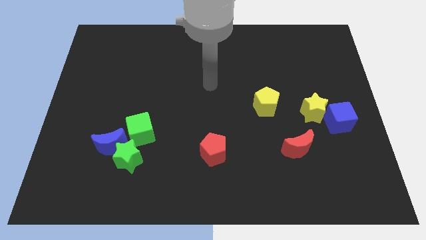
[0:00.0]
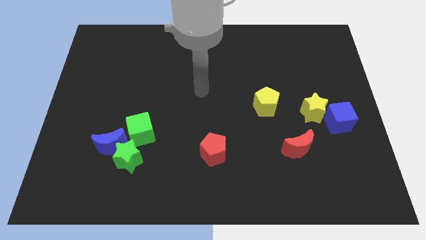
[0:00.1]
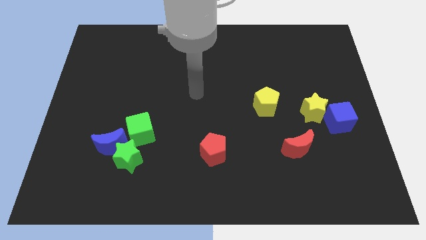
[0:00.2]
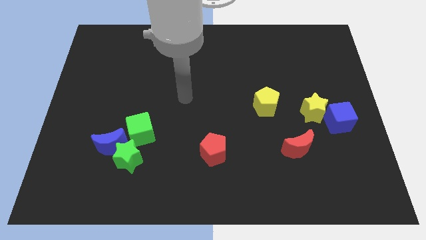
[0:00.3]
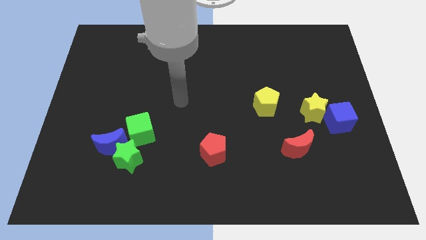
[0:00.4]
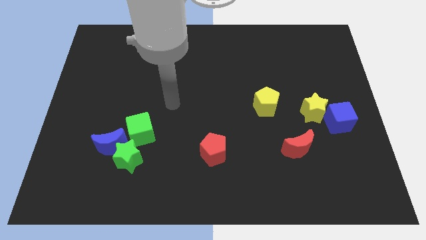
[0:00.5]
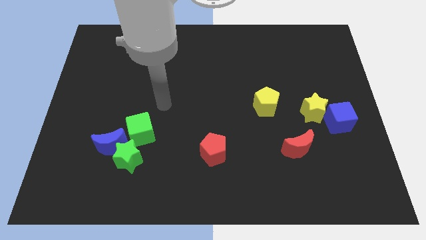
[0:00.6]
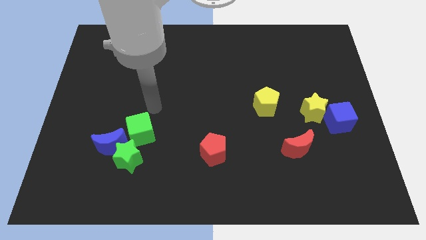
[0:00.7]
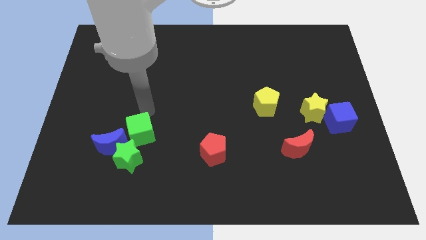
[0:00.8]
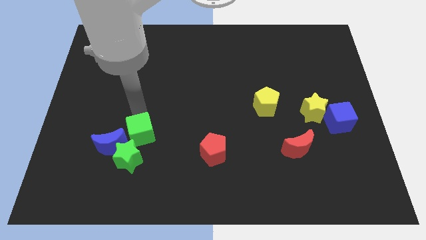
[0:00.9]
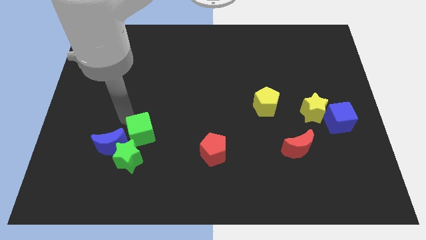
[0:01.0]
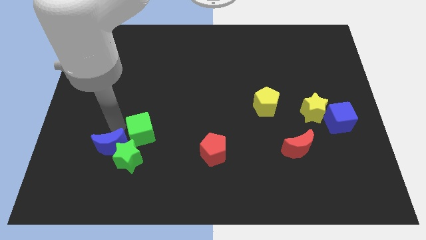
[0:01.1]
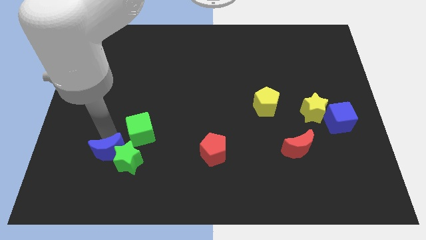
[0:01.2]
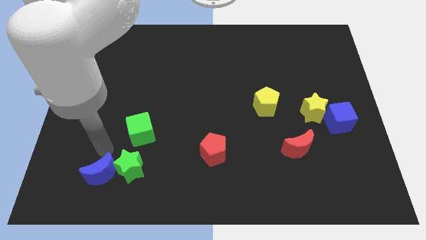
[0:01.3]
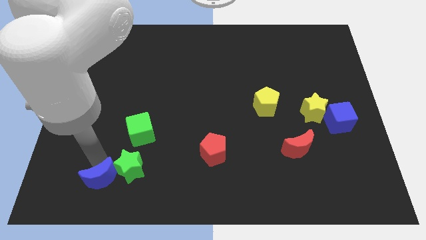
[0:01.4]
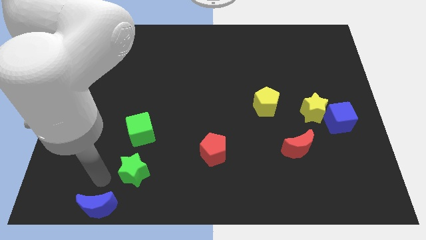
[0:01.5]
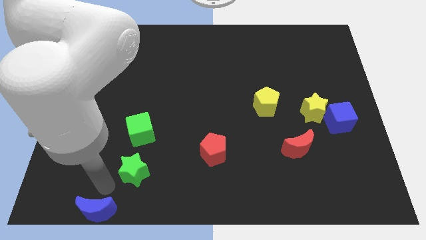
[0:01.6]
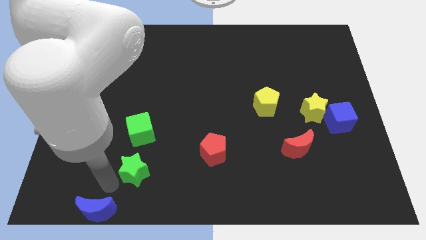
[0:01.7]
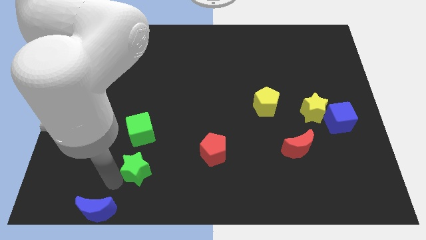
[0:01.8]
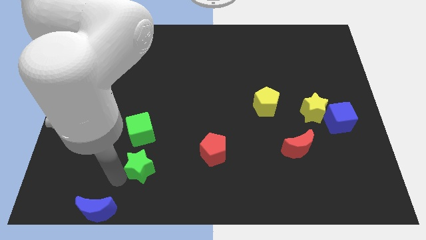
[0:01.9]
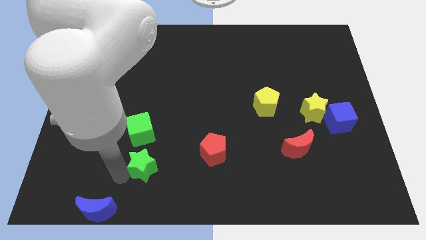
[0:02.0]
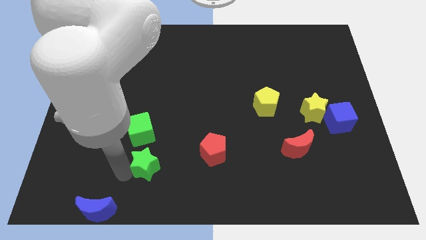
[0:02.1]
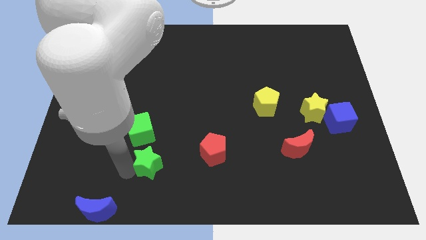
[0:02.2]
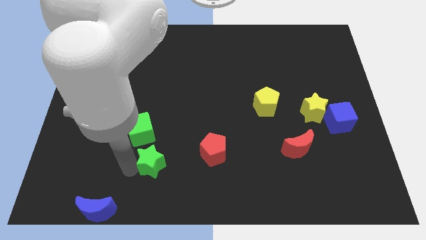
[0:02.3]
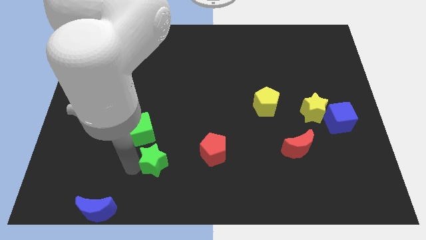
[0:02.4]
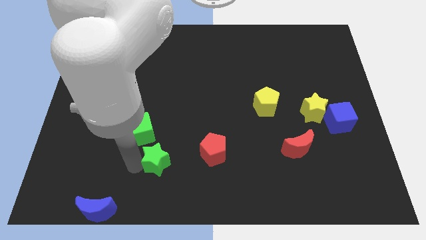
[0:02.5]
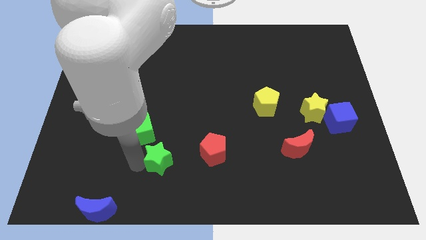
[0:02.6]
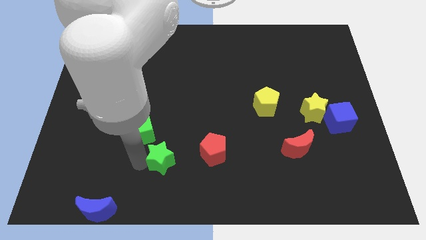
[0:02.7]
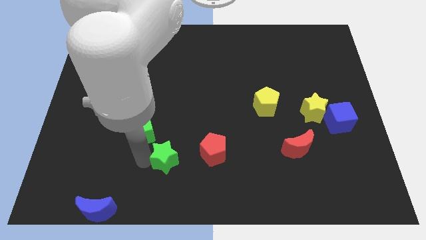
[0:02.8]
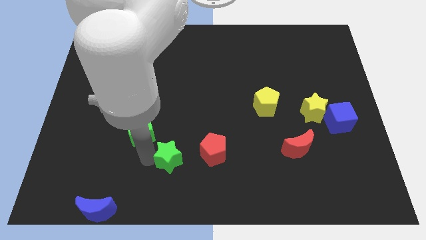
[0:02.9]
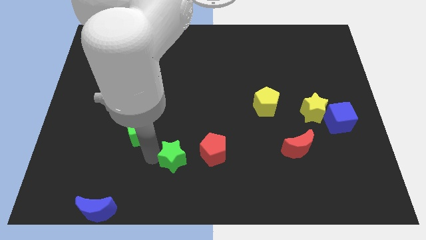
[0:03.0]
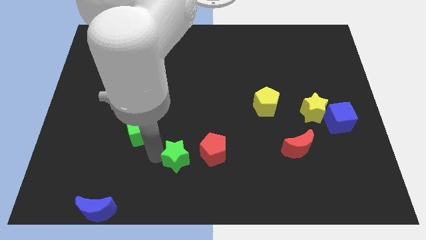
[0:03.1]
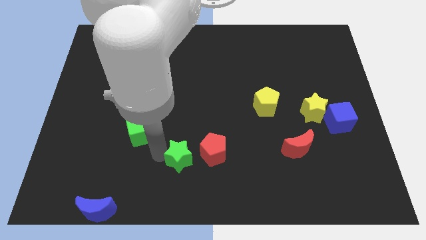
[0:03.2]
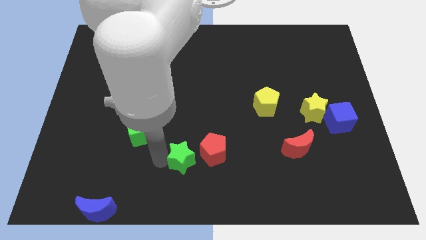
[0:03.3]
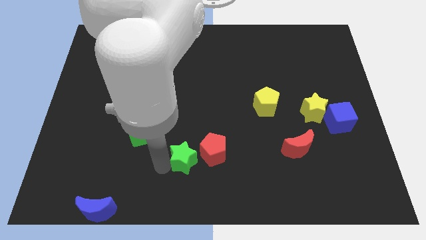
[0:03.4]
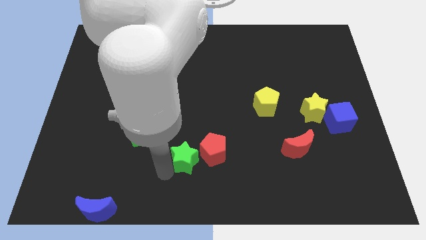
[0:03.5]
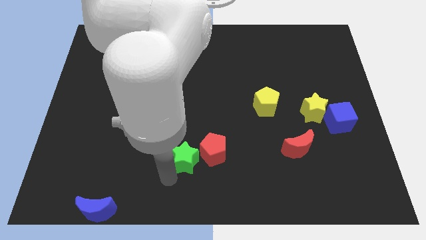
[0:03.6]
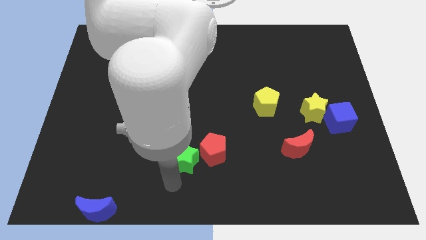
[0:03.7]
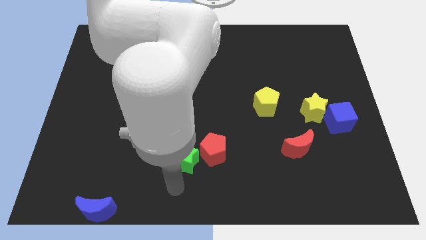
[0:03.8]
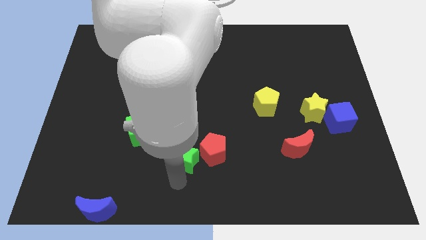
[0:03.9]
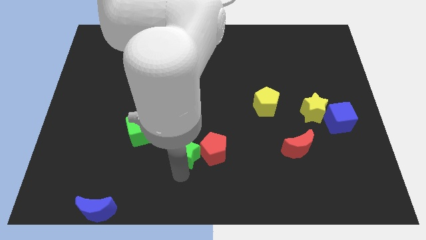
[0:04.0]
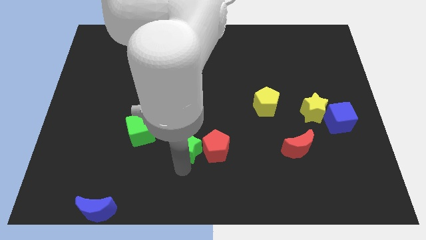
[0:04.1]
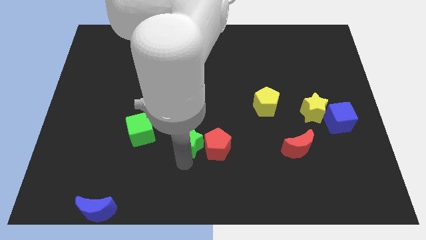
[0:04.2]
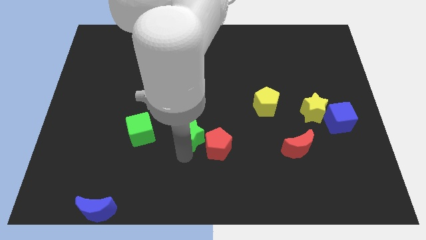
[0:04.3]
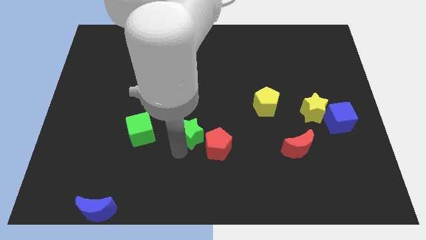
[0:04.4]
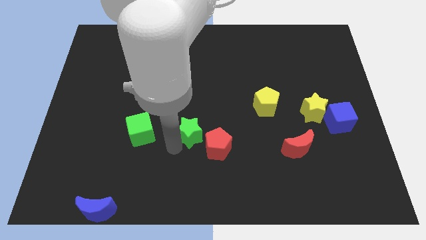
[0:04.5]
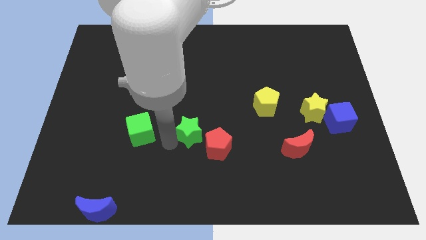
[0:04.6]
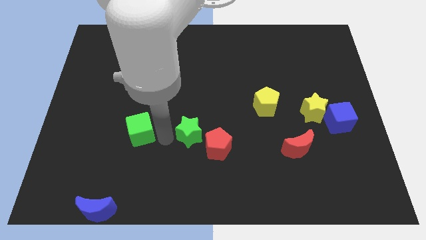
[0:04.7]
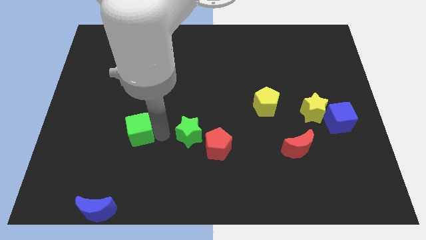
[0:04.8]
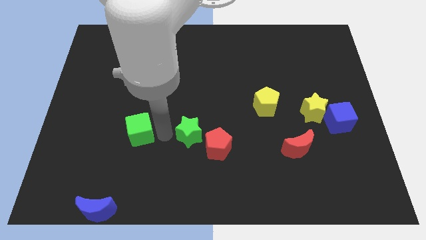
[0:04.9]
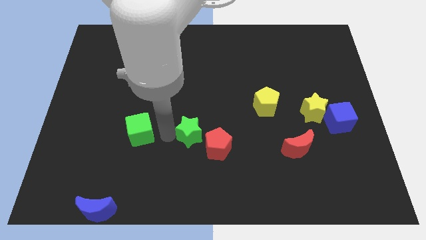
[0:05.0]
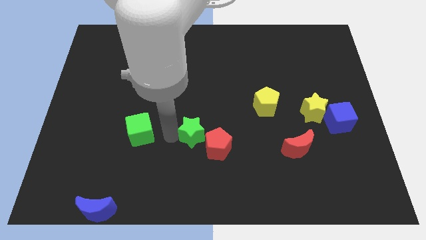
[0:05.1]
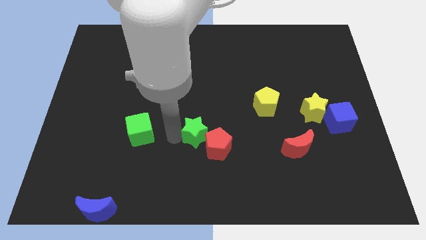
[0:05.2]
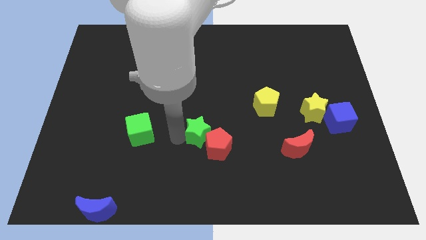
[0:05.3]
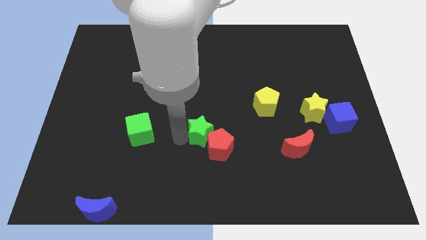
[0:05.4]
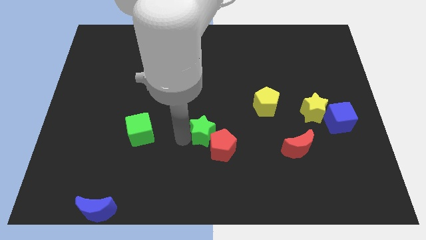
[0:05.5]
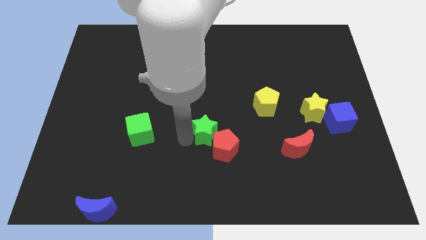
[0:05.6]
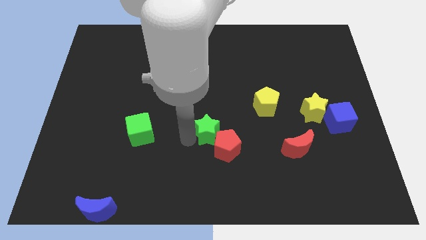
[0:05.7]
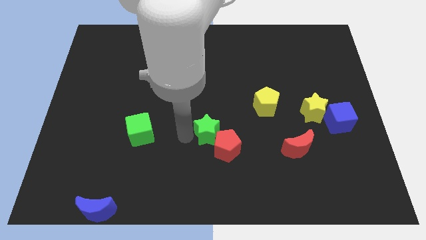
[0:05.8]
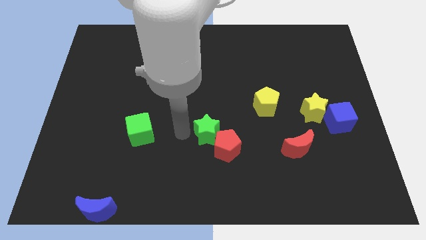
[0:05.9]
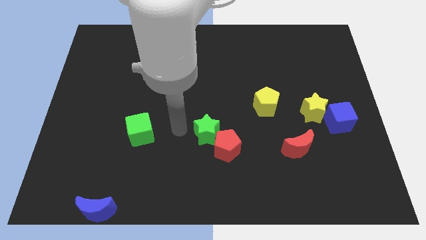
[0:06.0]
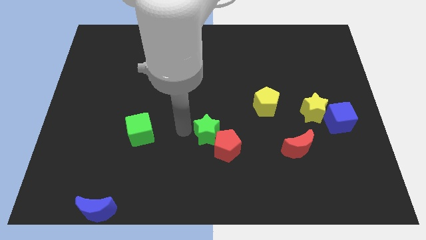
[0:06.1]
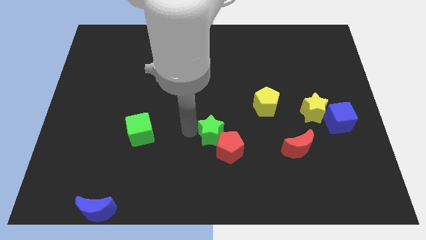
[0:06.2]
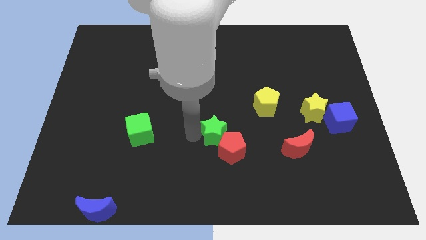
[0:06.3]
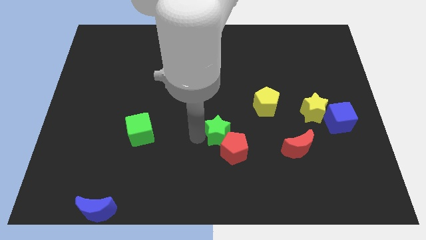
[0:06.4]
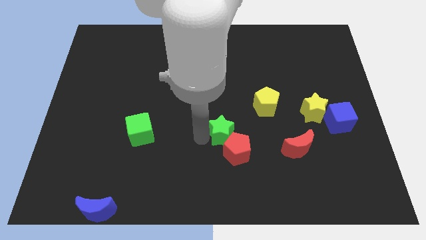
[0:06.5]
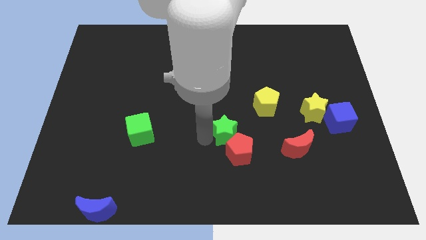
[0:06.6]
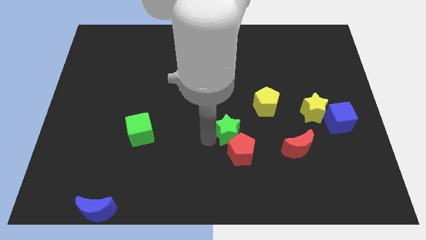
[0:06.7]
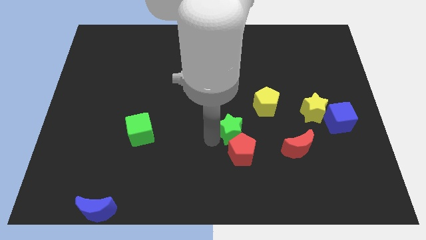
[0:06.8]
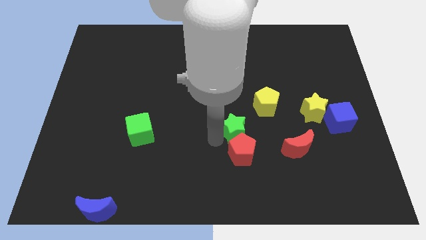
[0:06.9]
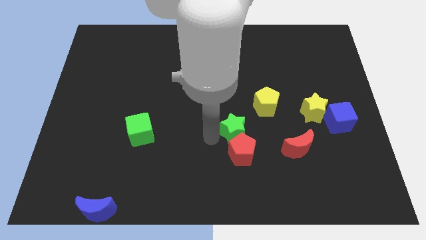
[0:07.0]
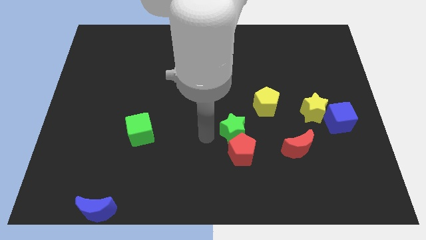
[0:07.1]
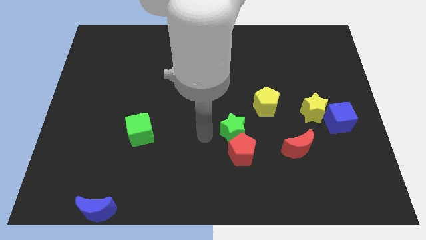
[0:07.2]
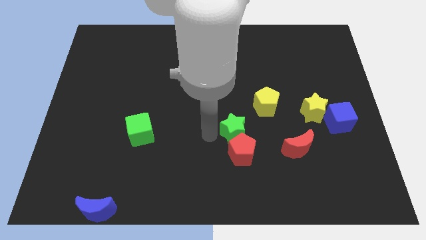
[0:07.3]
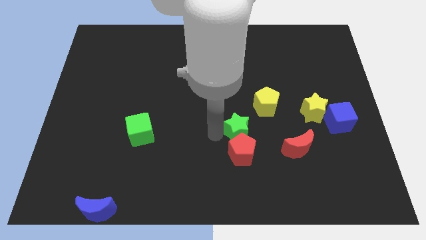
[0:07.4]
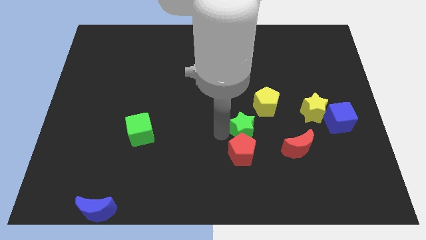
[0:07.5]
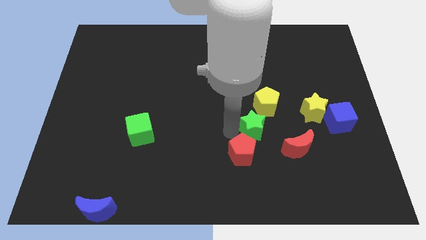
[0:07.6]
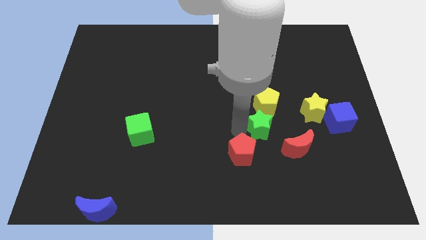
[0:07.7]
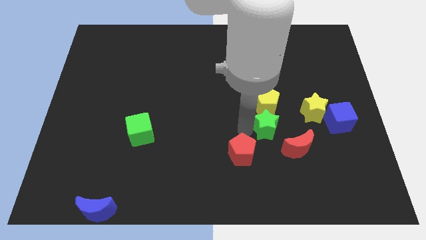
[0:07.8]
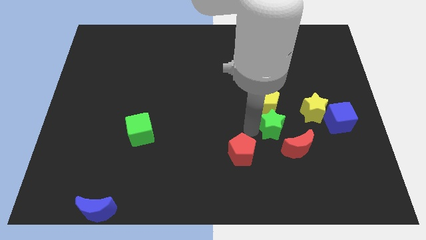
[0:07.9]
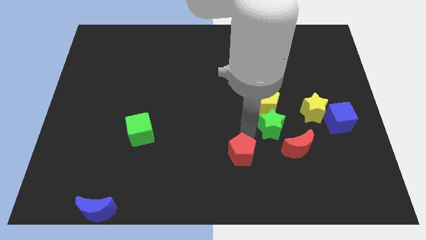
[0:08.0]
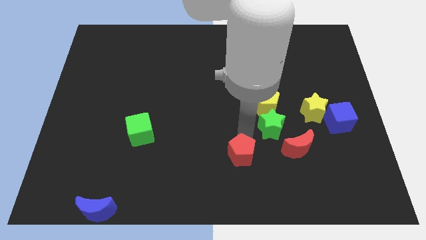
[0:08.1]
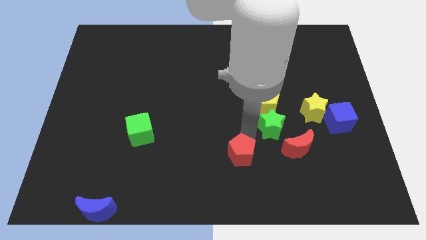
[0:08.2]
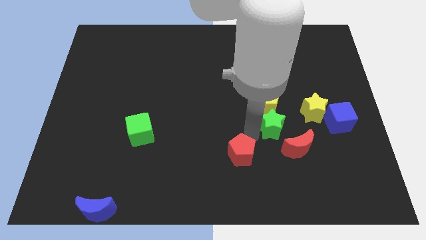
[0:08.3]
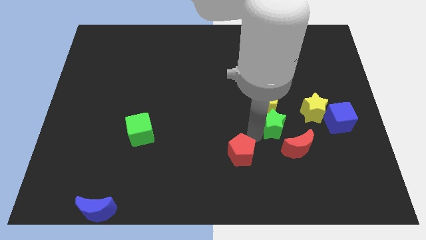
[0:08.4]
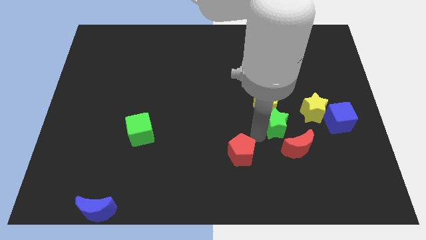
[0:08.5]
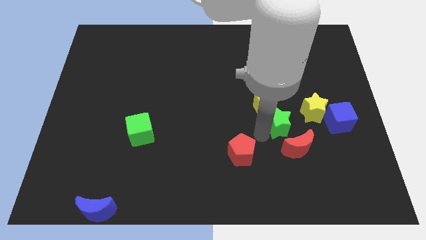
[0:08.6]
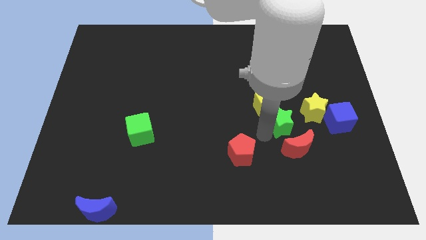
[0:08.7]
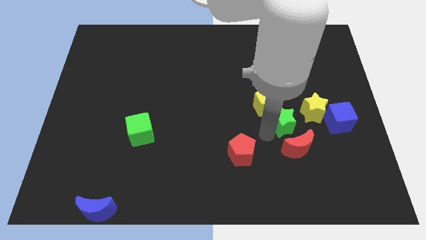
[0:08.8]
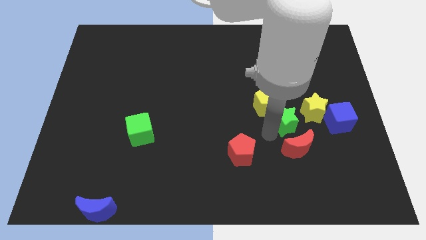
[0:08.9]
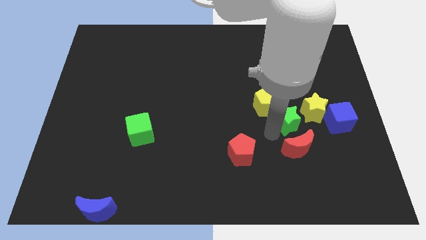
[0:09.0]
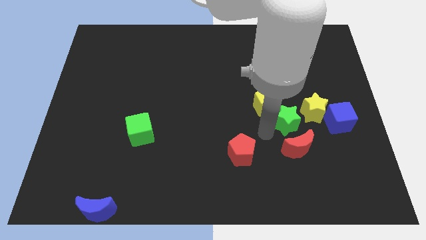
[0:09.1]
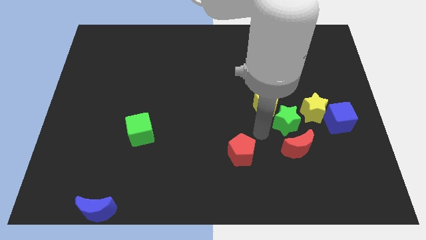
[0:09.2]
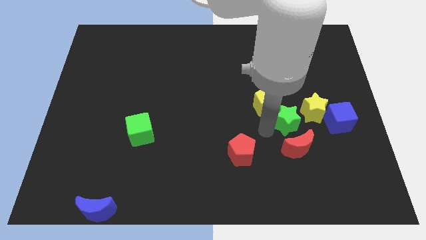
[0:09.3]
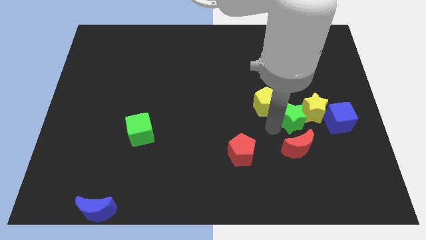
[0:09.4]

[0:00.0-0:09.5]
push the green star towards the yellow star
